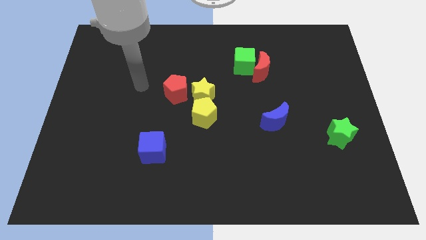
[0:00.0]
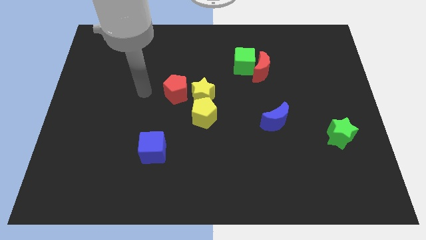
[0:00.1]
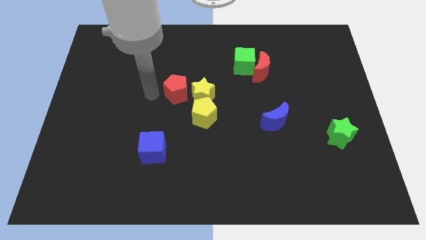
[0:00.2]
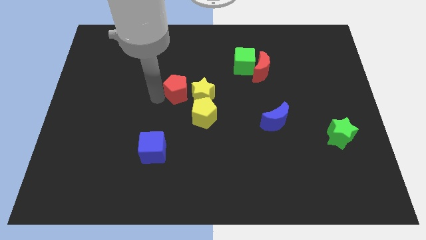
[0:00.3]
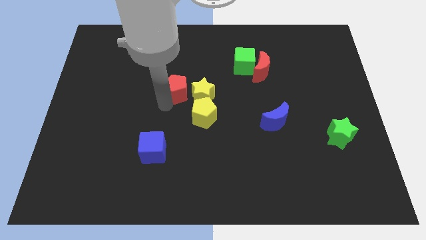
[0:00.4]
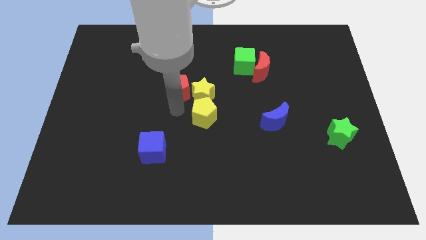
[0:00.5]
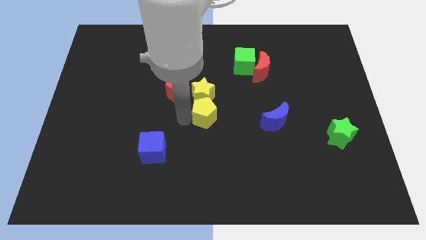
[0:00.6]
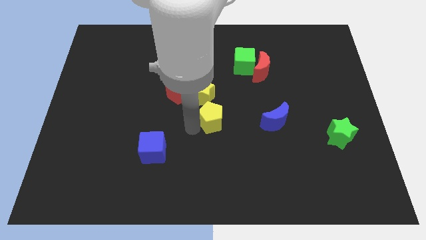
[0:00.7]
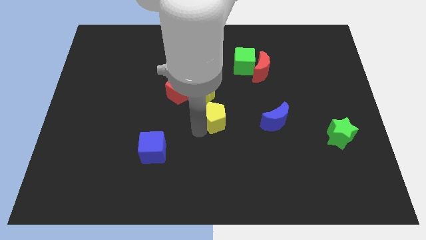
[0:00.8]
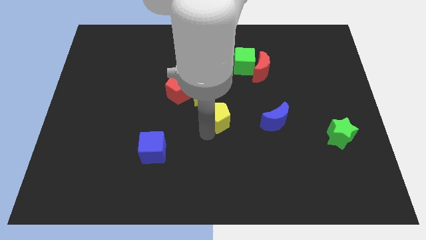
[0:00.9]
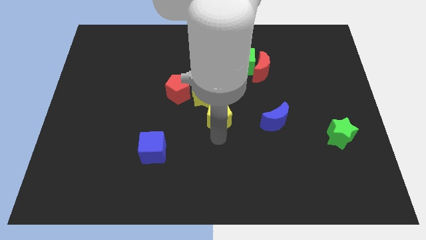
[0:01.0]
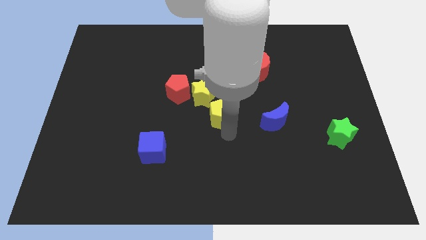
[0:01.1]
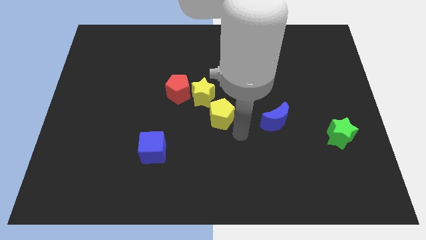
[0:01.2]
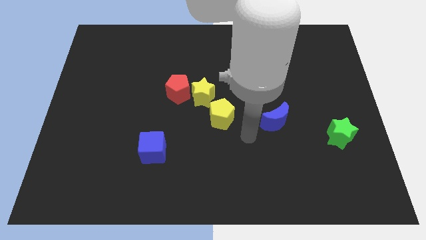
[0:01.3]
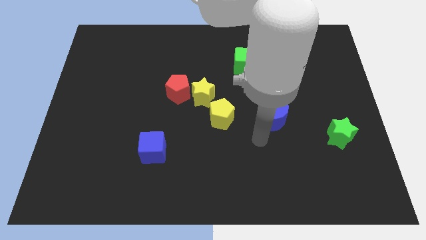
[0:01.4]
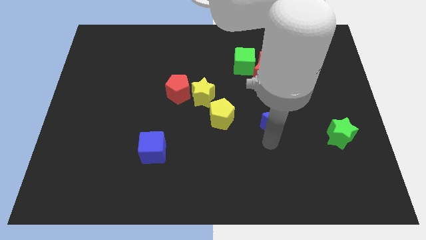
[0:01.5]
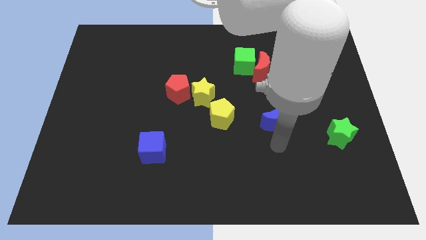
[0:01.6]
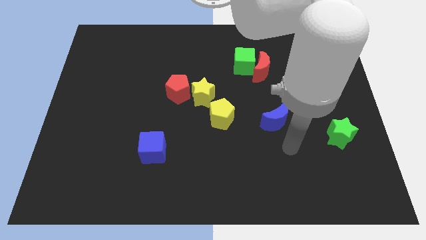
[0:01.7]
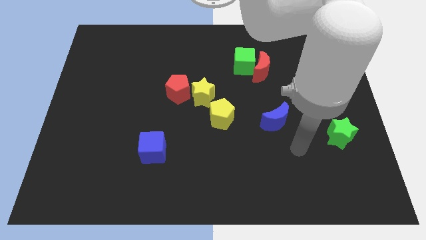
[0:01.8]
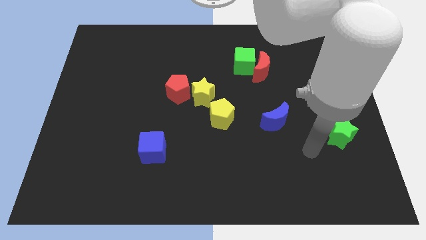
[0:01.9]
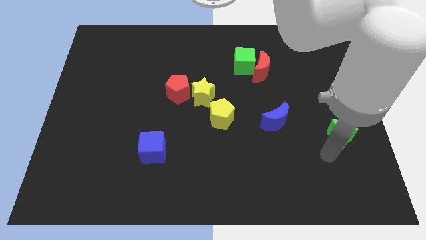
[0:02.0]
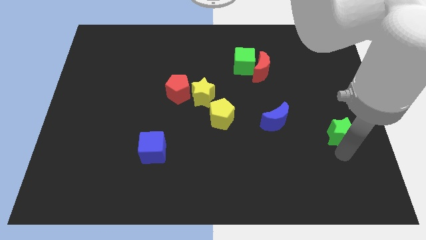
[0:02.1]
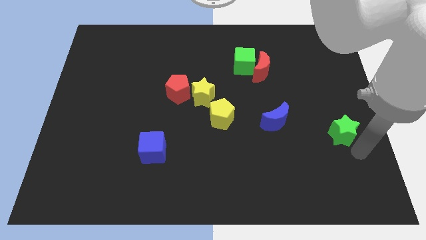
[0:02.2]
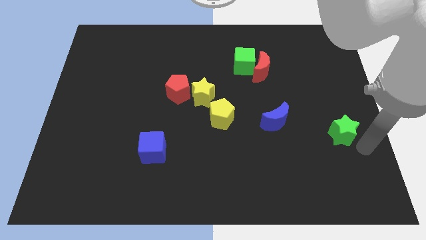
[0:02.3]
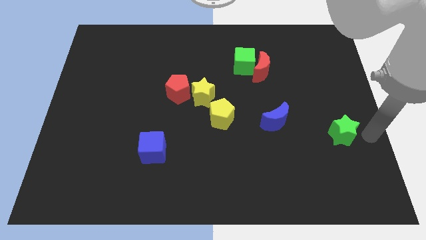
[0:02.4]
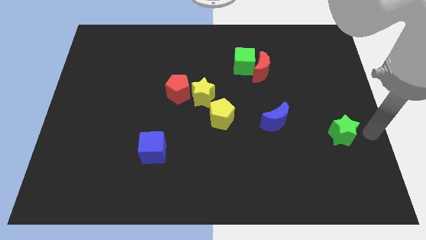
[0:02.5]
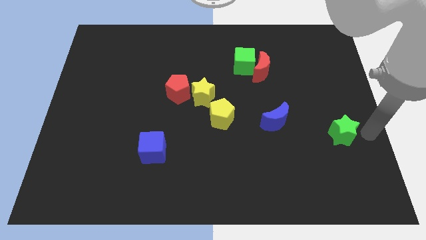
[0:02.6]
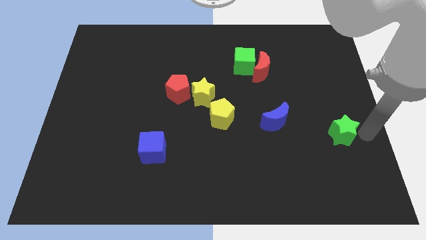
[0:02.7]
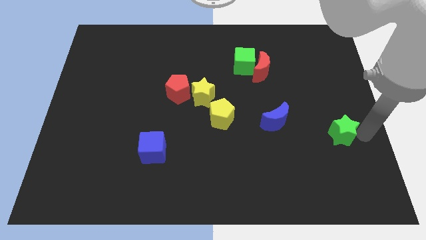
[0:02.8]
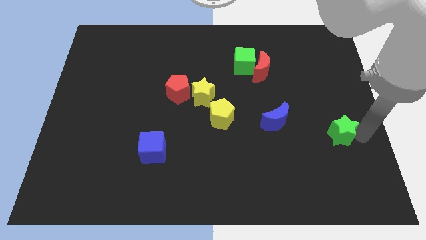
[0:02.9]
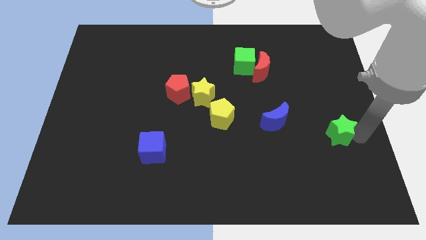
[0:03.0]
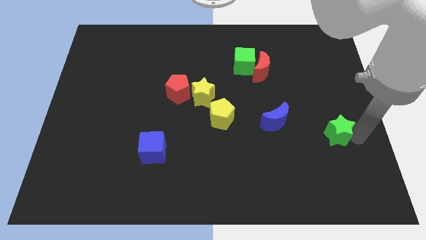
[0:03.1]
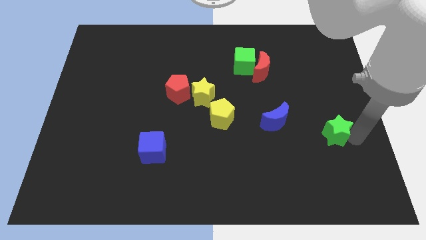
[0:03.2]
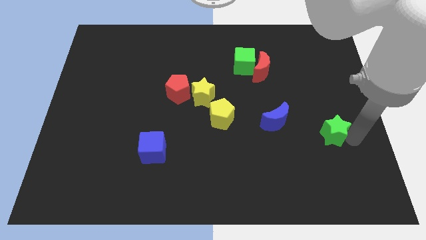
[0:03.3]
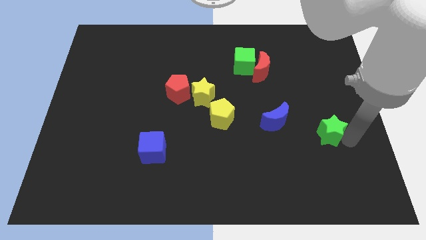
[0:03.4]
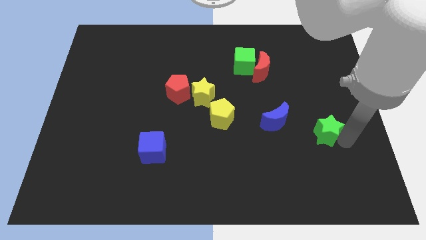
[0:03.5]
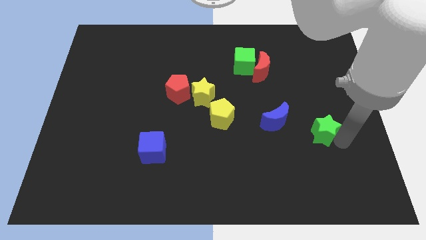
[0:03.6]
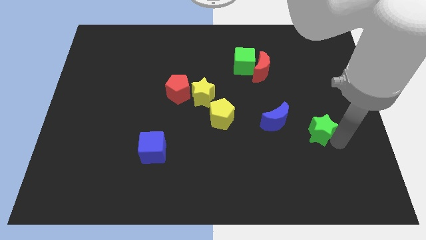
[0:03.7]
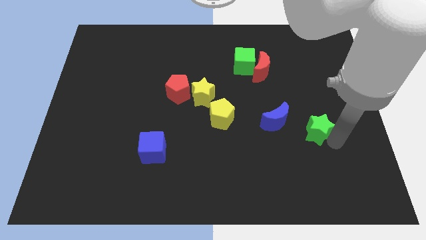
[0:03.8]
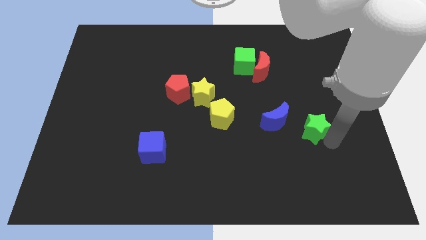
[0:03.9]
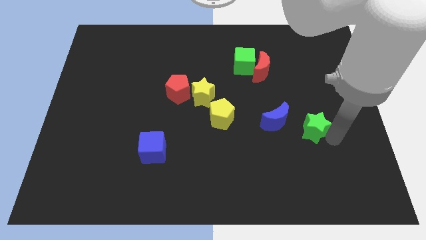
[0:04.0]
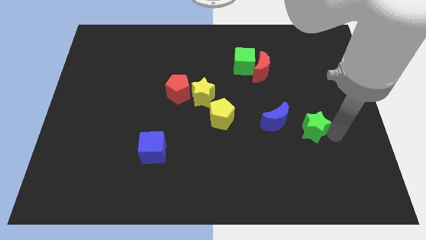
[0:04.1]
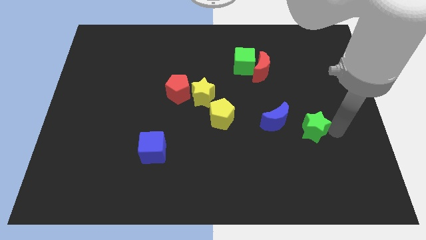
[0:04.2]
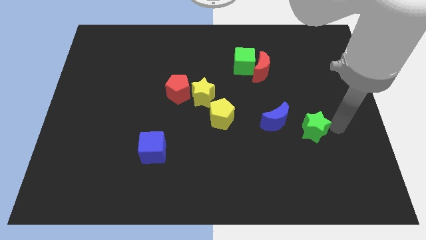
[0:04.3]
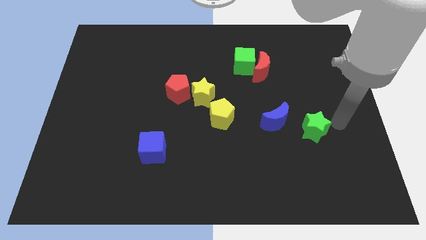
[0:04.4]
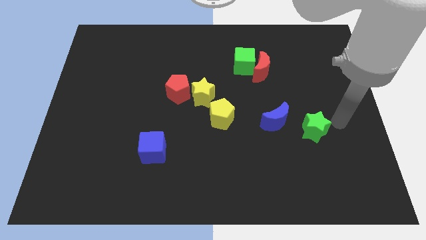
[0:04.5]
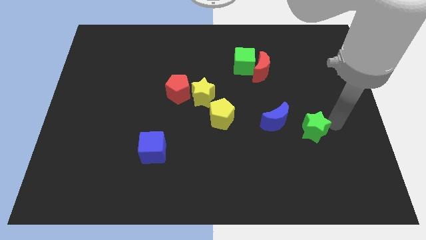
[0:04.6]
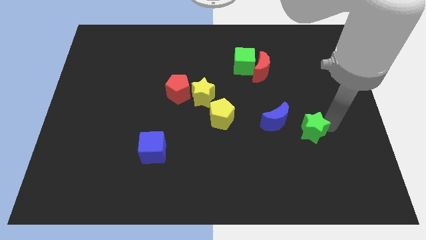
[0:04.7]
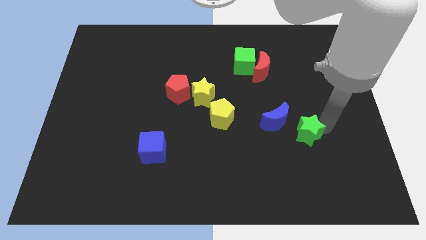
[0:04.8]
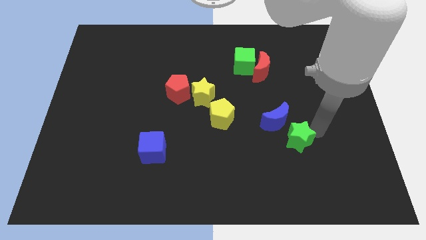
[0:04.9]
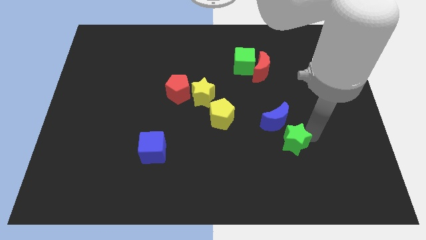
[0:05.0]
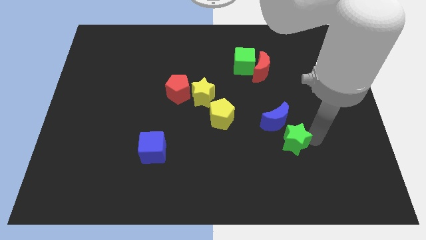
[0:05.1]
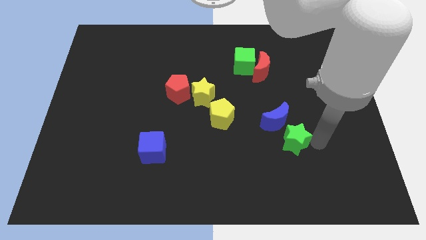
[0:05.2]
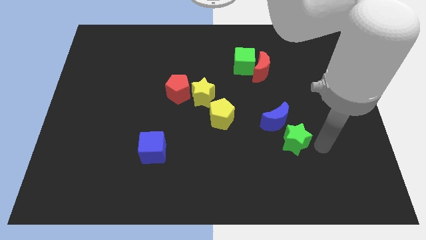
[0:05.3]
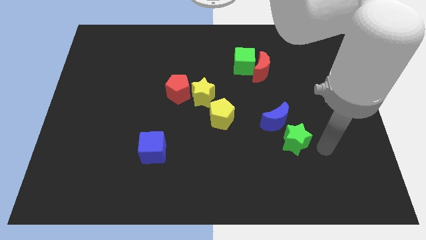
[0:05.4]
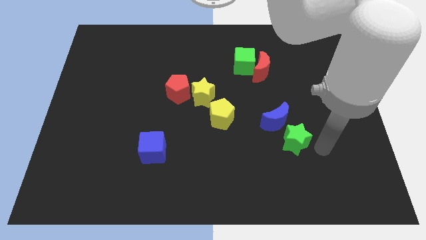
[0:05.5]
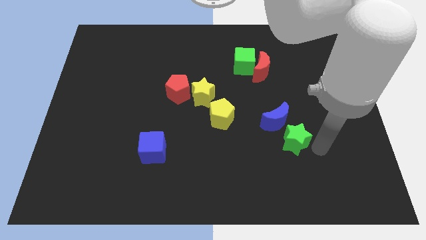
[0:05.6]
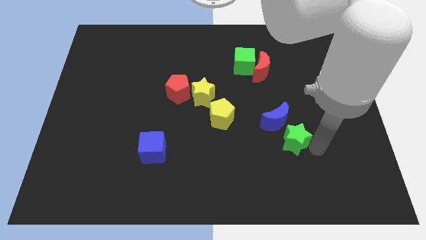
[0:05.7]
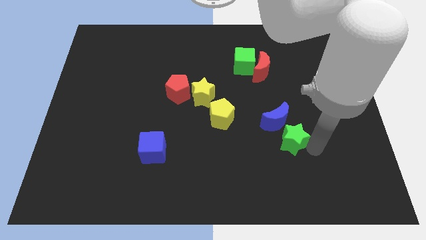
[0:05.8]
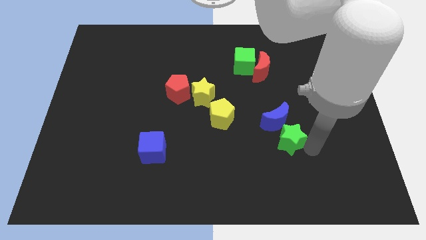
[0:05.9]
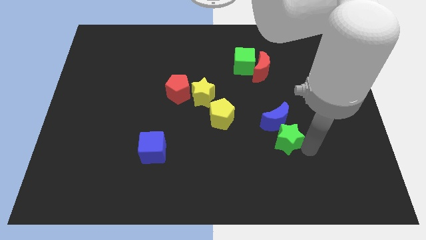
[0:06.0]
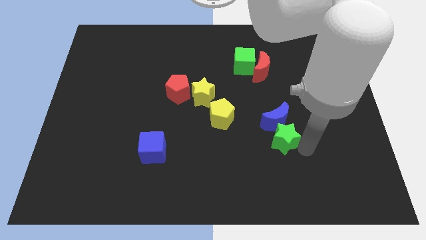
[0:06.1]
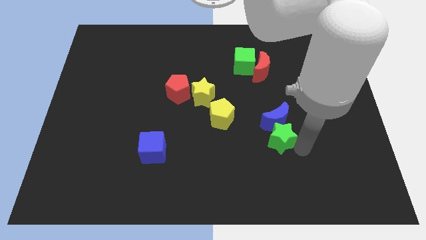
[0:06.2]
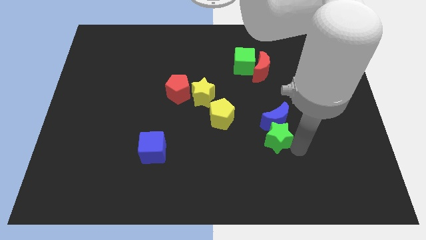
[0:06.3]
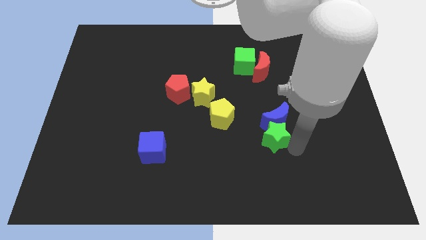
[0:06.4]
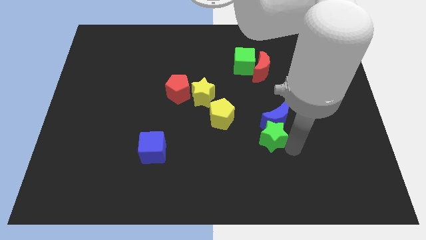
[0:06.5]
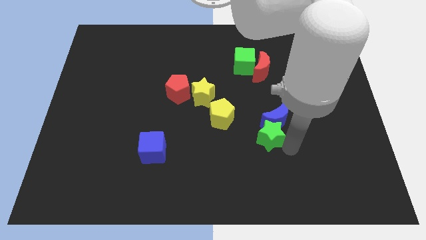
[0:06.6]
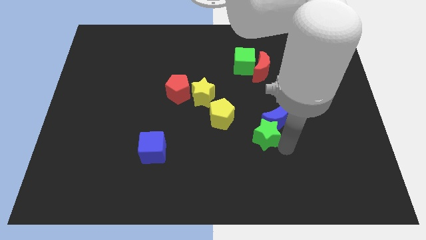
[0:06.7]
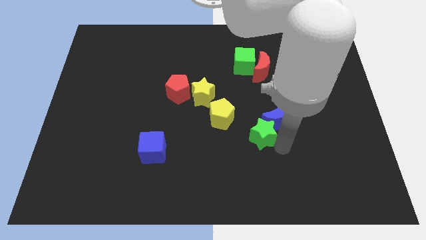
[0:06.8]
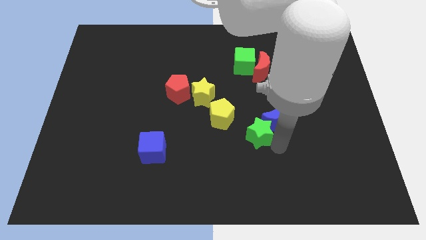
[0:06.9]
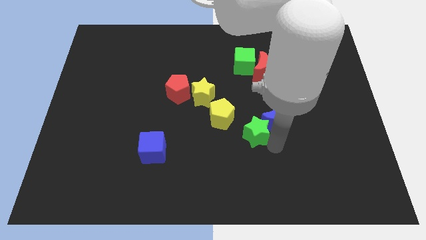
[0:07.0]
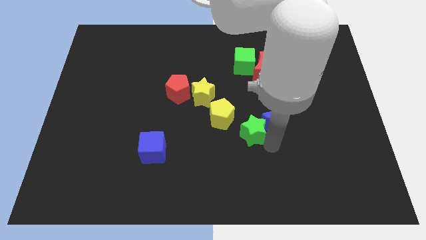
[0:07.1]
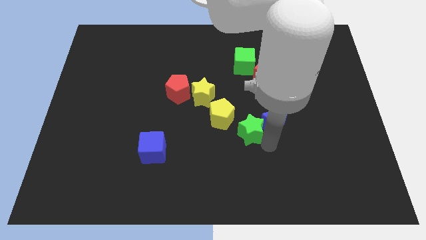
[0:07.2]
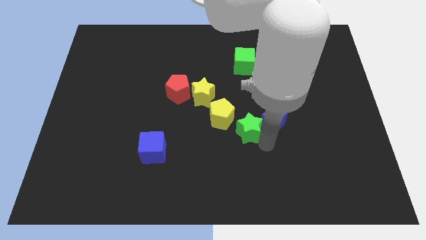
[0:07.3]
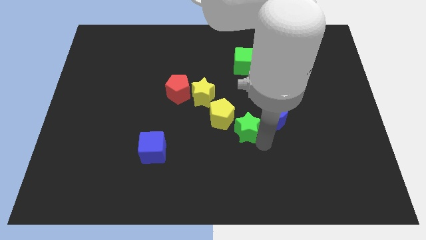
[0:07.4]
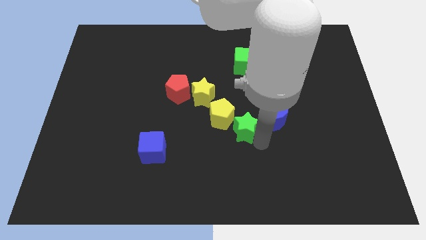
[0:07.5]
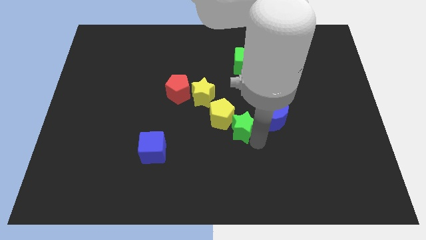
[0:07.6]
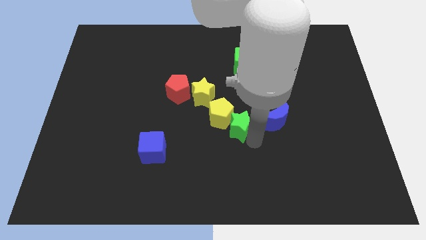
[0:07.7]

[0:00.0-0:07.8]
put the green star diagonally down and to the right of the yellow star

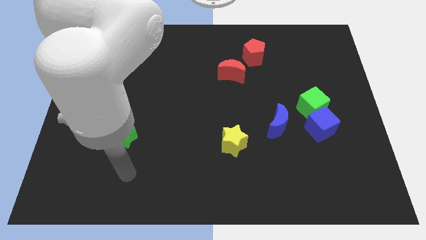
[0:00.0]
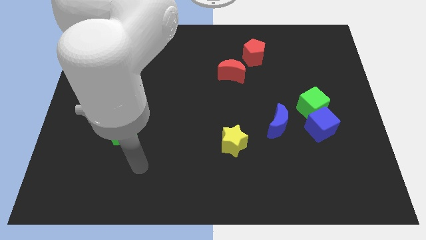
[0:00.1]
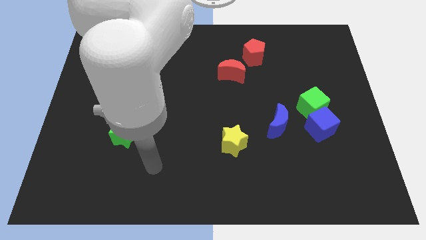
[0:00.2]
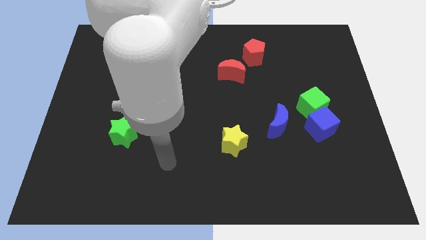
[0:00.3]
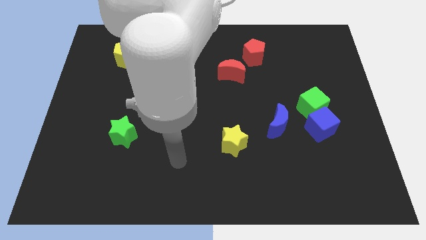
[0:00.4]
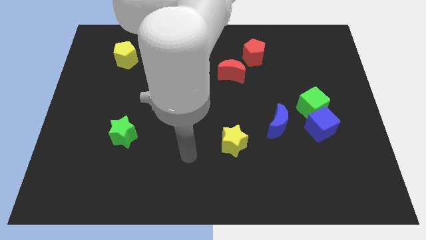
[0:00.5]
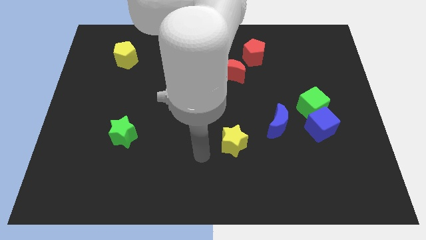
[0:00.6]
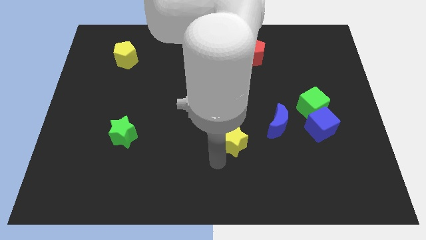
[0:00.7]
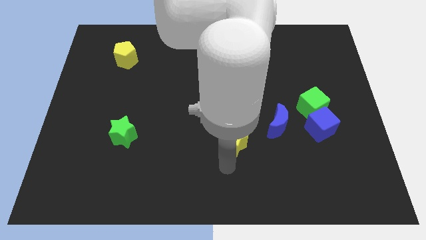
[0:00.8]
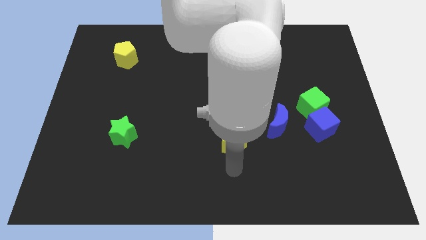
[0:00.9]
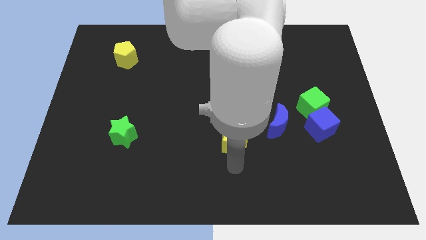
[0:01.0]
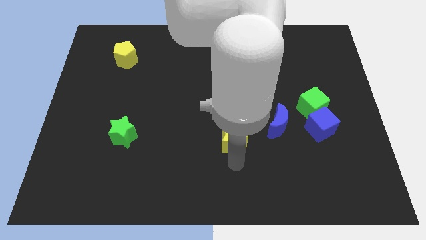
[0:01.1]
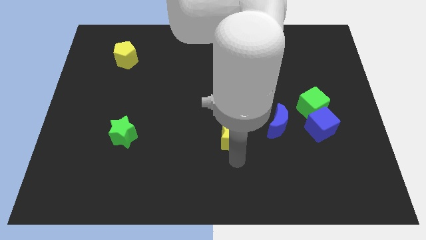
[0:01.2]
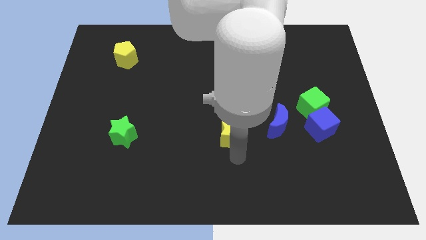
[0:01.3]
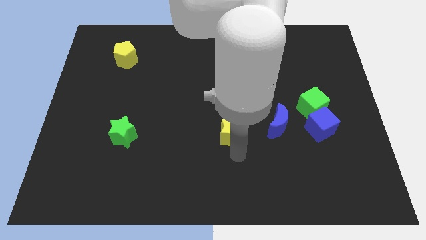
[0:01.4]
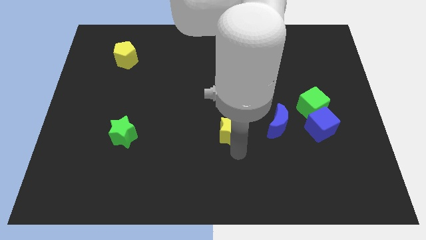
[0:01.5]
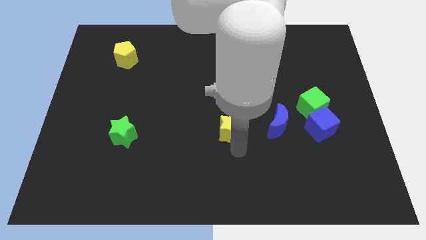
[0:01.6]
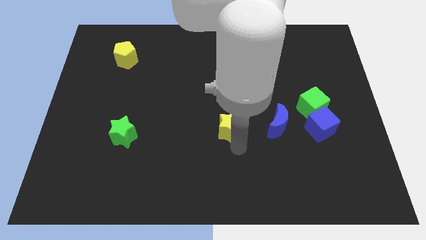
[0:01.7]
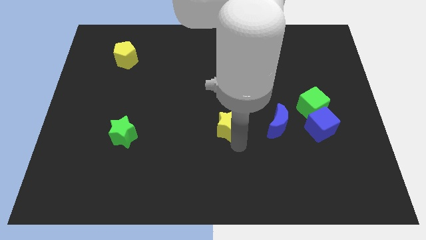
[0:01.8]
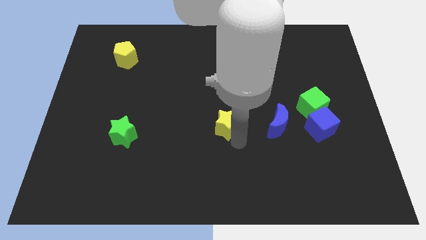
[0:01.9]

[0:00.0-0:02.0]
put the yellow star below the red moon
